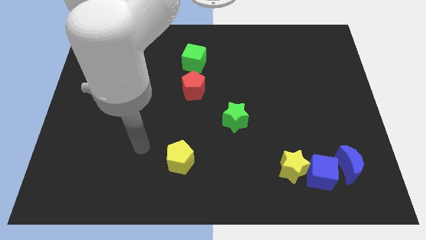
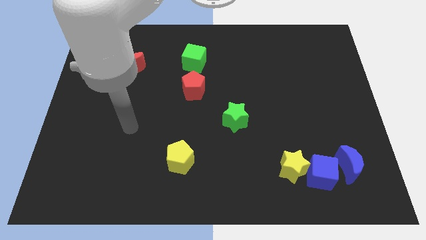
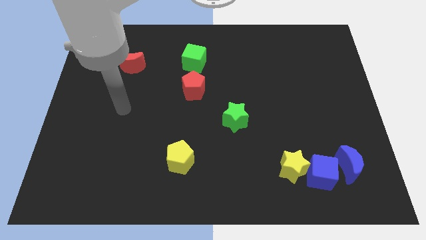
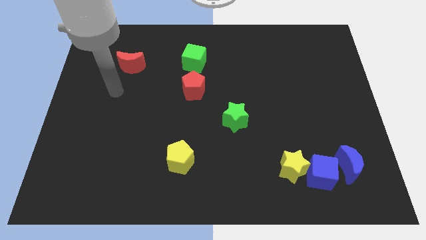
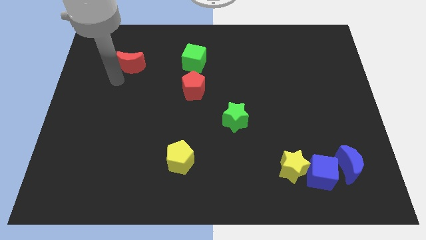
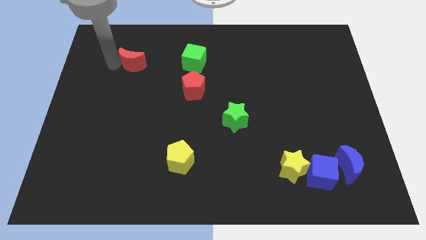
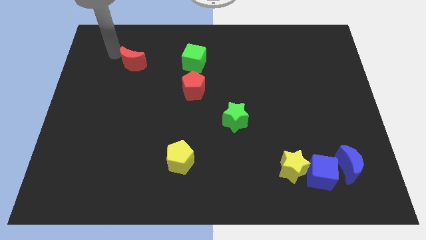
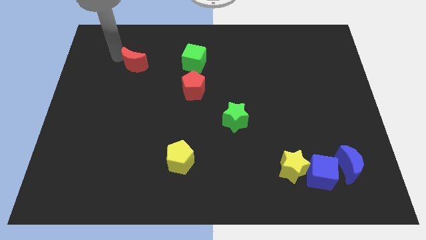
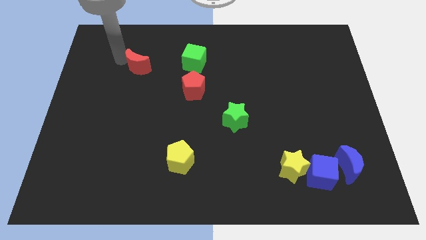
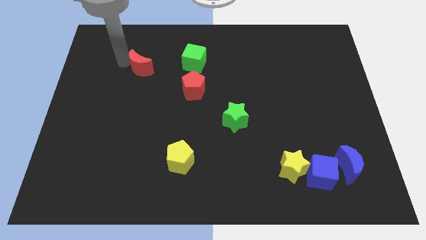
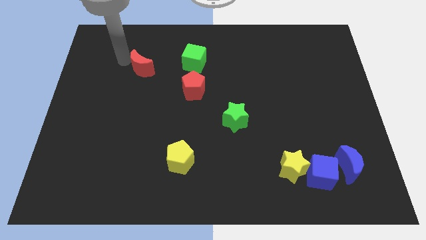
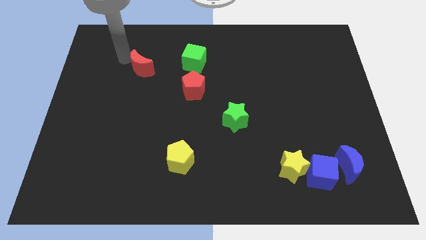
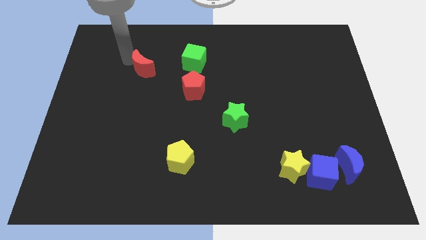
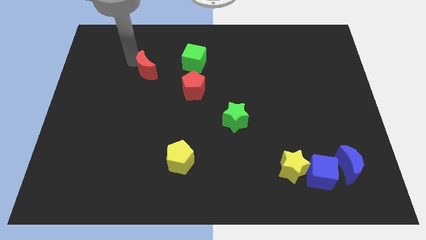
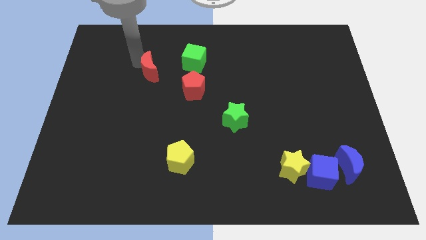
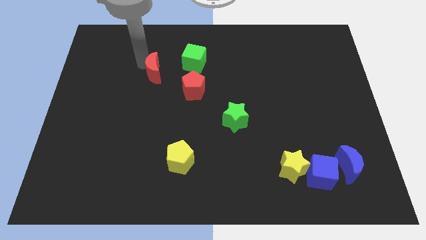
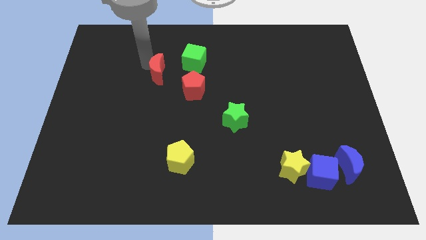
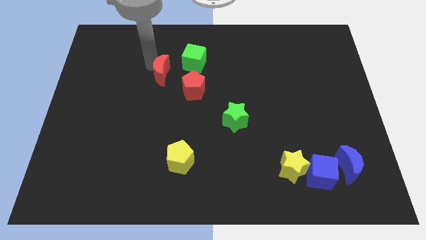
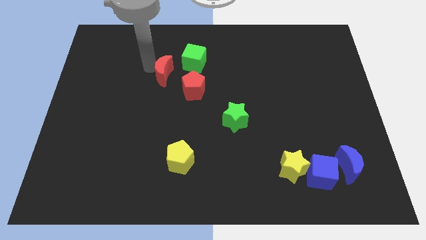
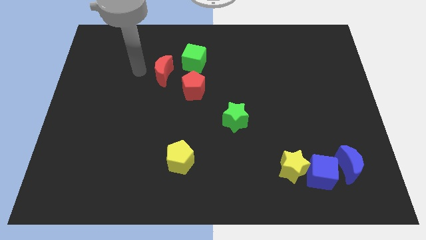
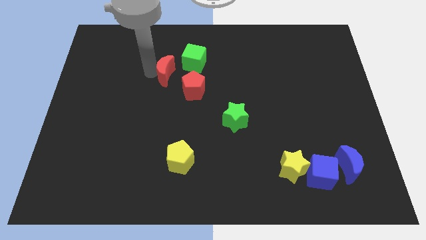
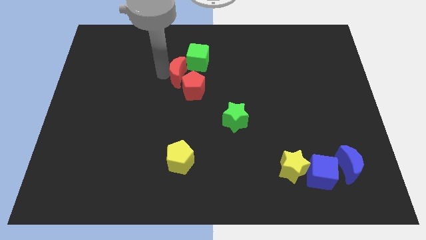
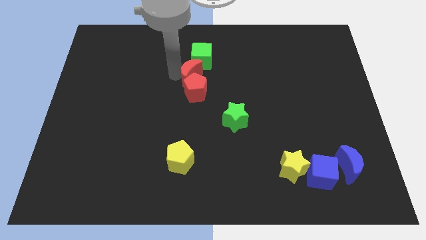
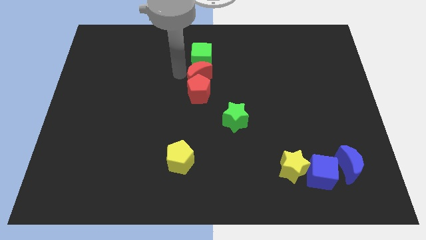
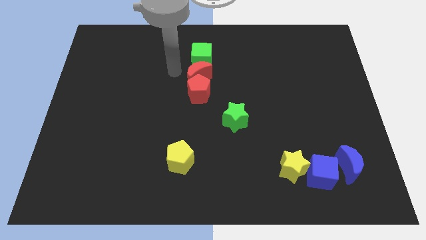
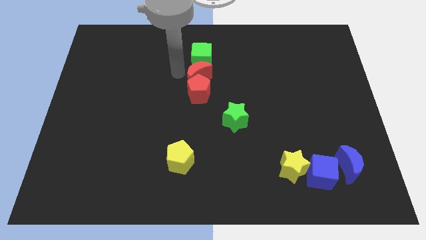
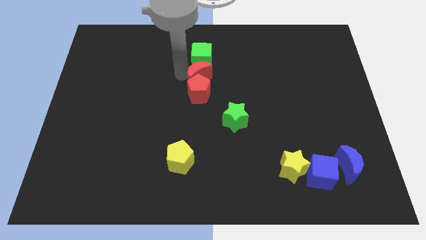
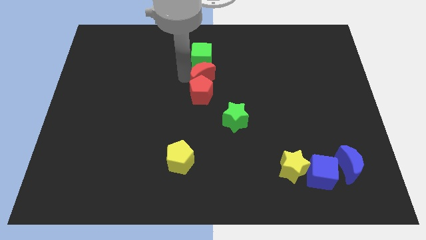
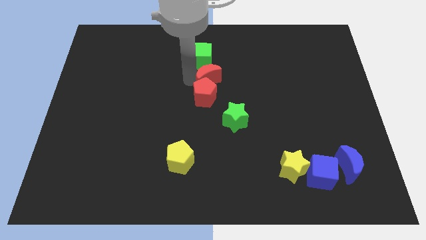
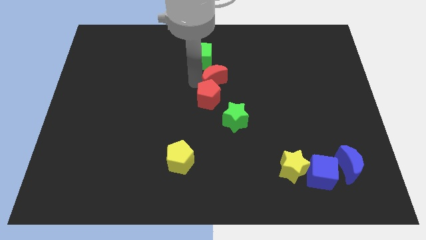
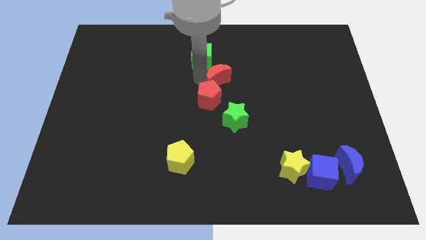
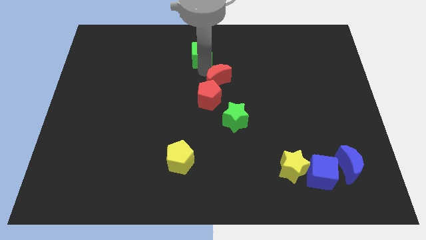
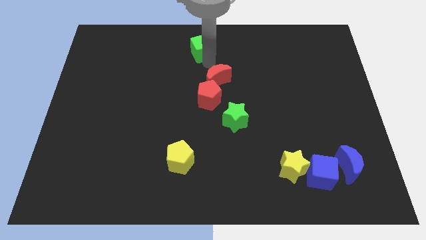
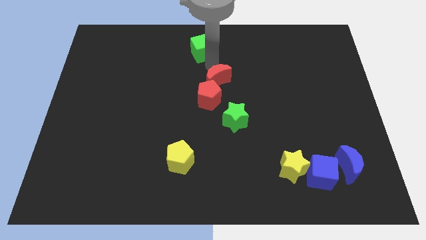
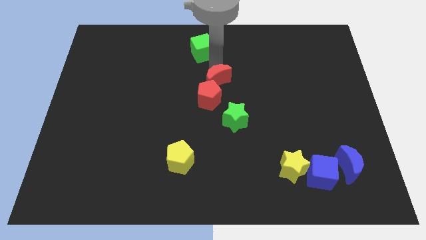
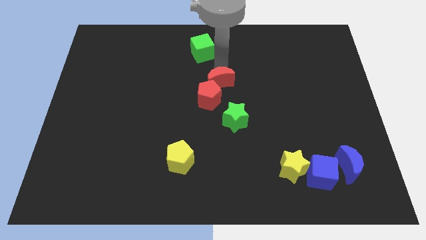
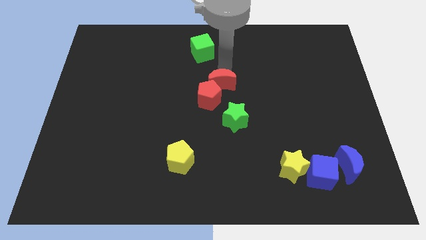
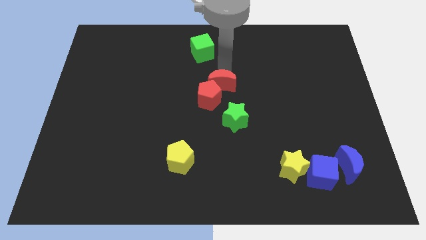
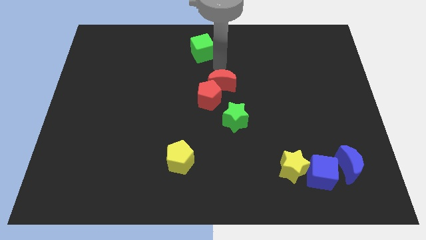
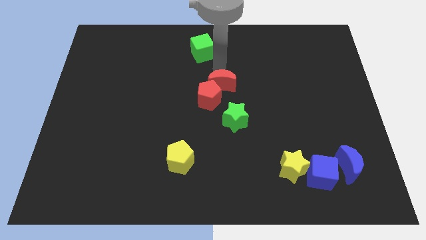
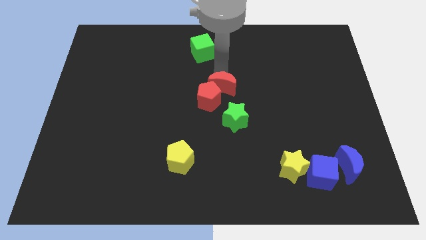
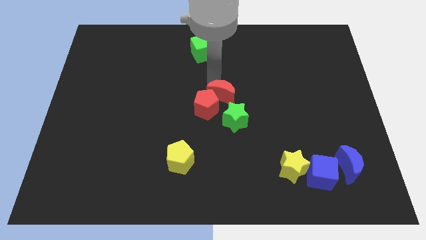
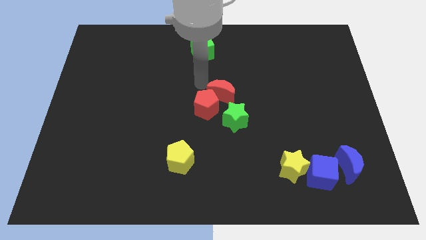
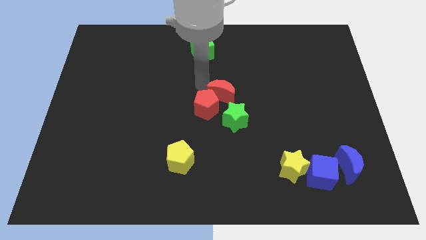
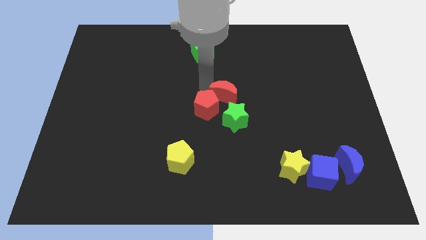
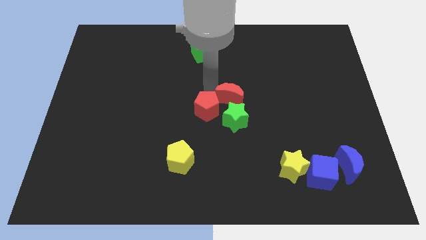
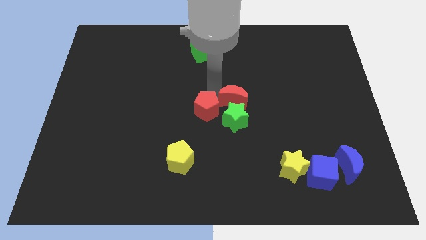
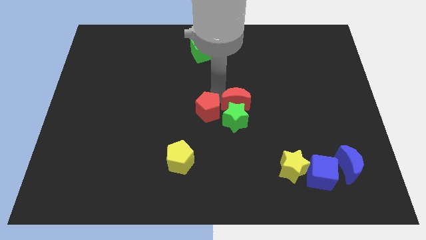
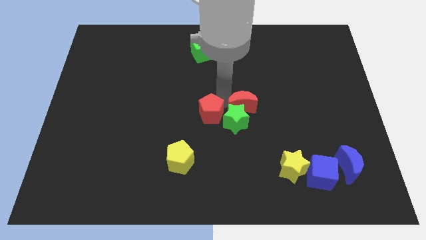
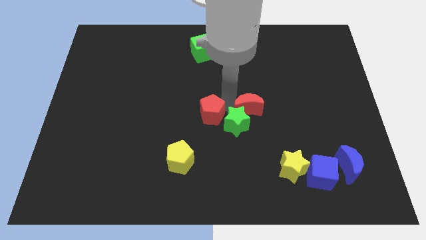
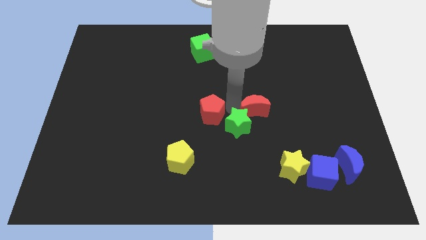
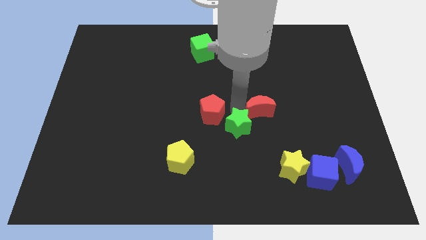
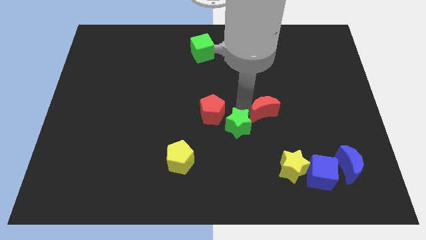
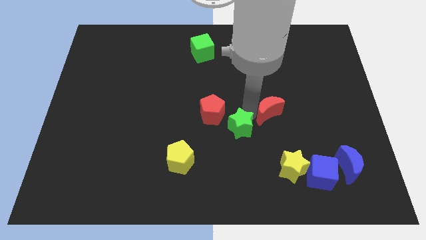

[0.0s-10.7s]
slide the red moon to the top of the yellow star

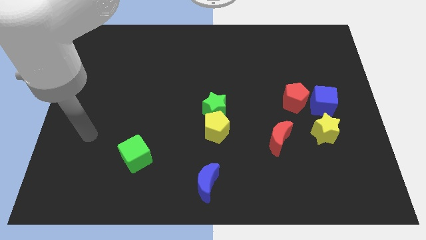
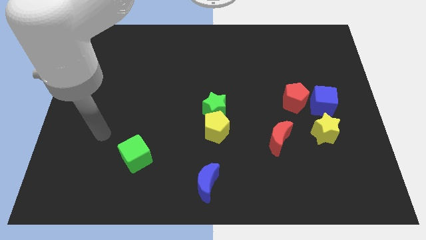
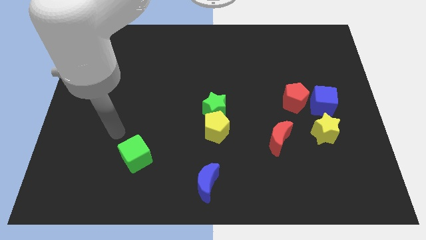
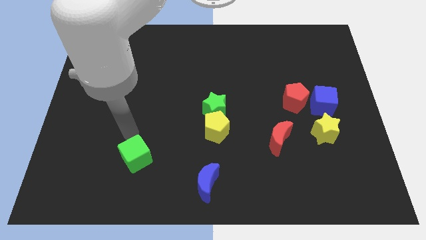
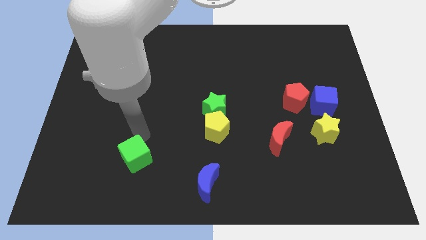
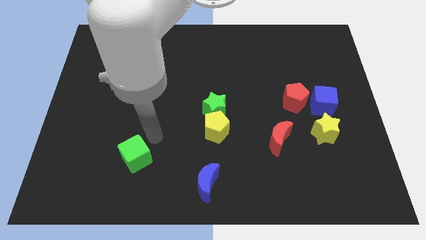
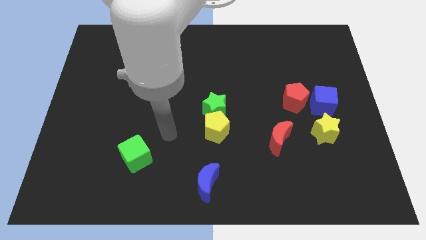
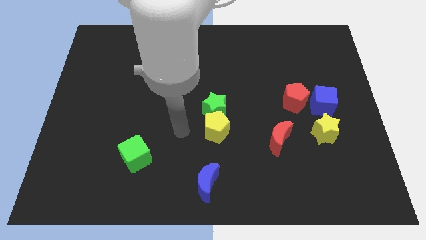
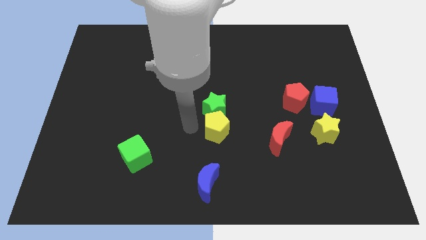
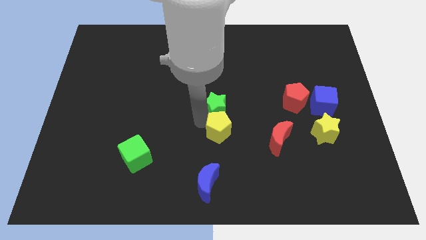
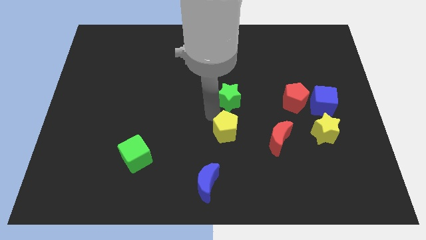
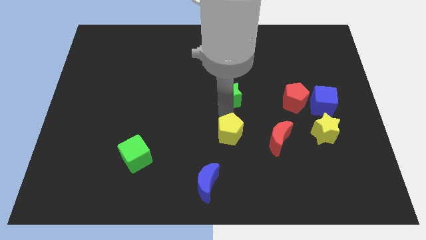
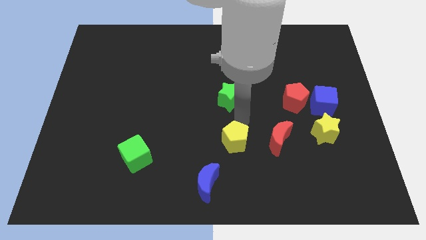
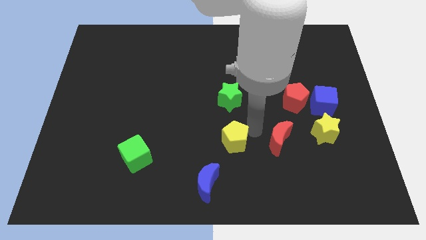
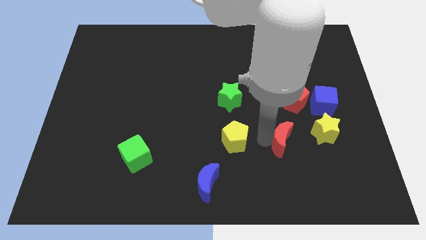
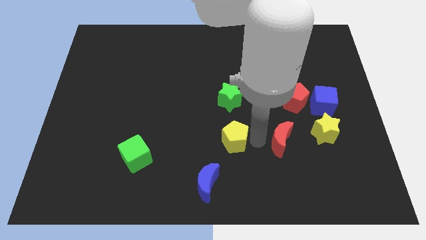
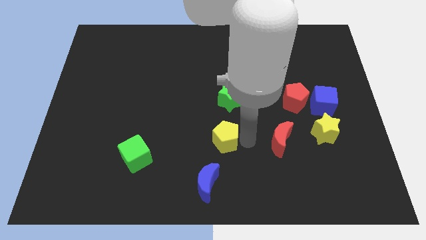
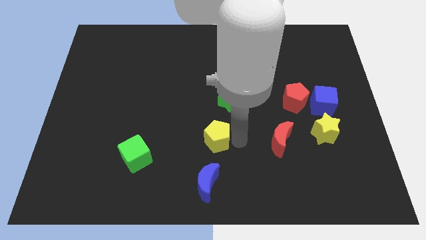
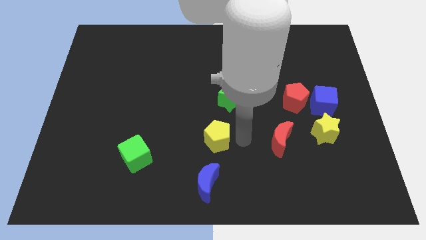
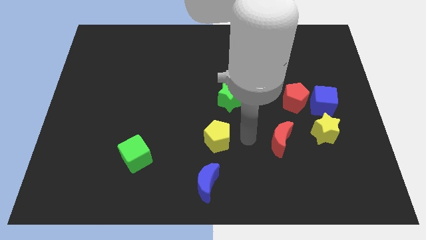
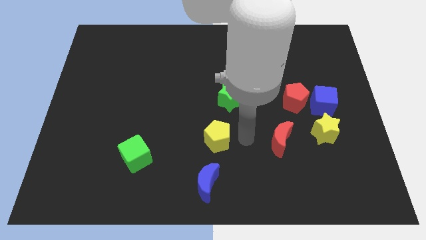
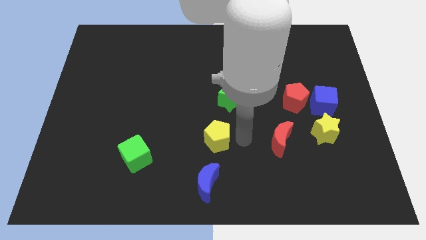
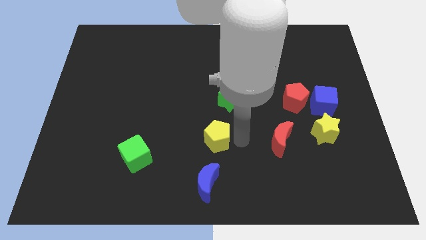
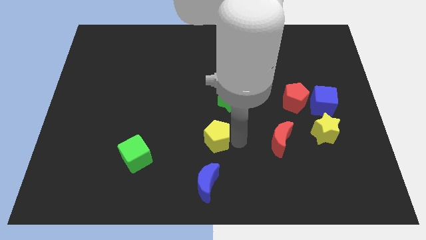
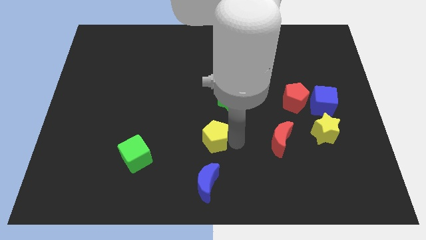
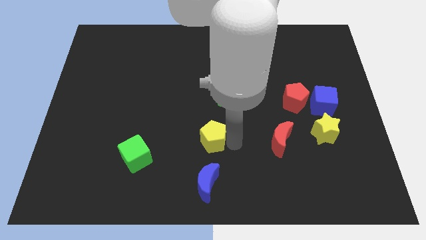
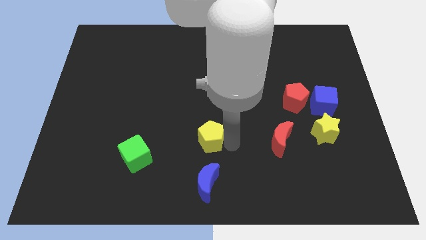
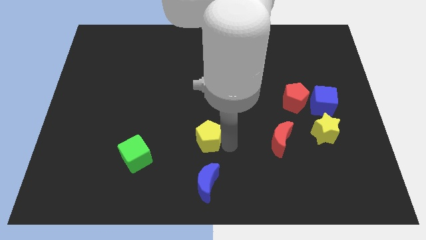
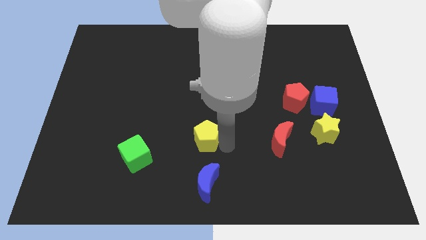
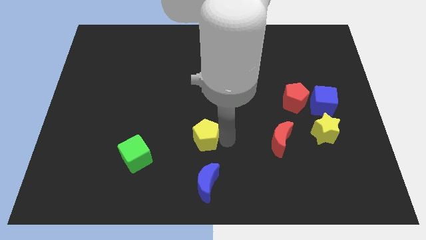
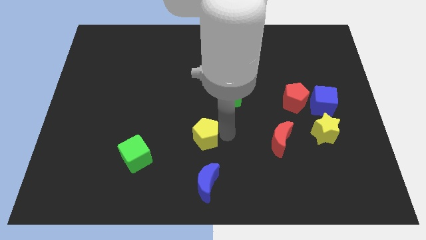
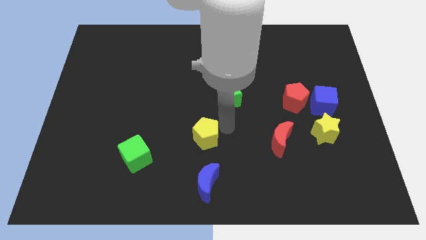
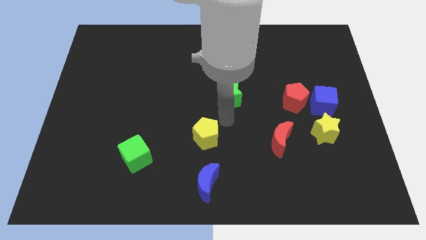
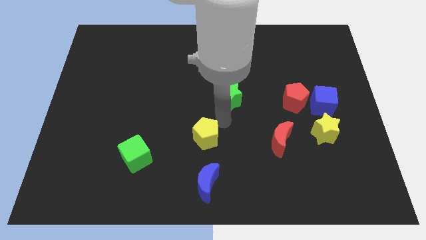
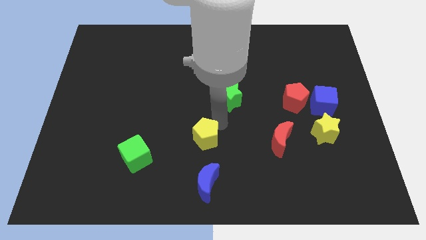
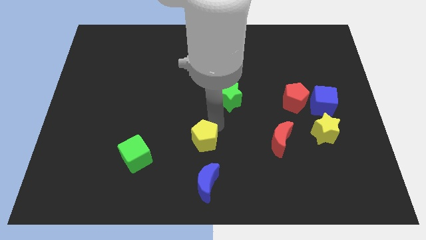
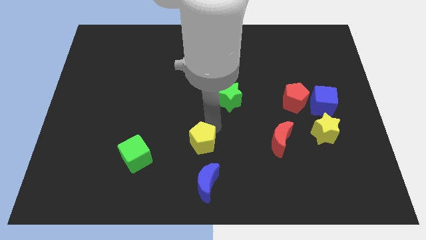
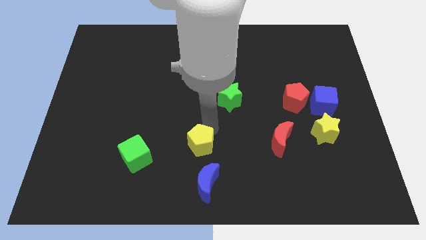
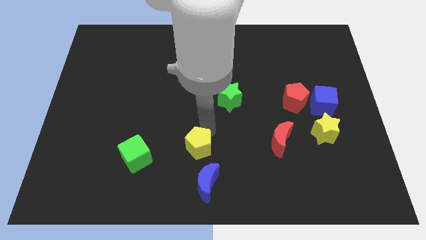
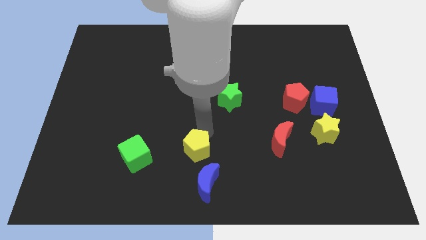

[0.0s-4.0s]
slide the yellow pentagon to the top left side of the blue moon
